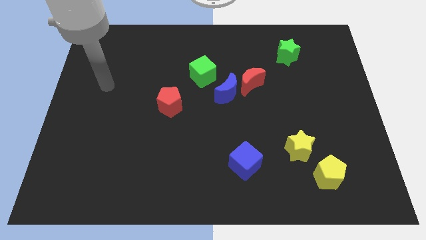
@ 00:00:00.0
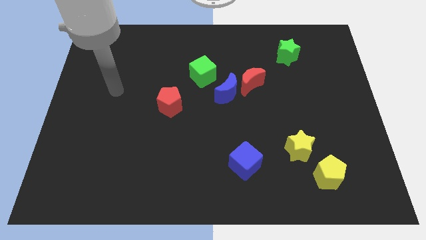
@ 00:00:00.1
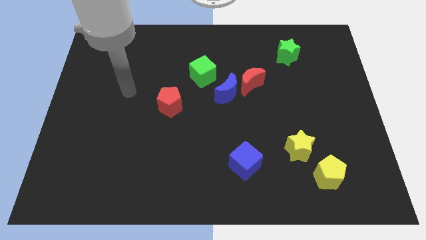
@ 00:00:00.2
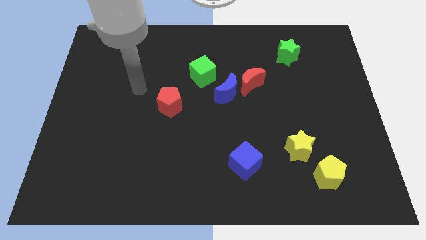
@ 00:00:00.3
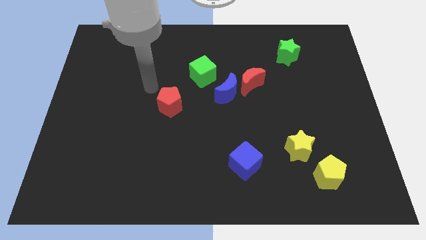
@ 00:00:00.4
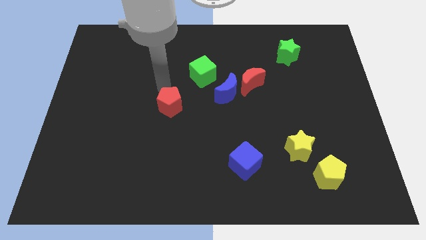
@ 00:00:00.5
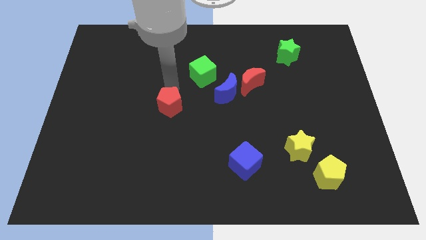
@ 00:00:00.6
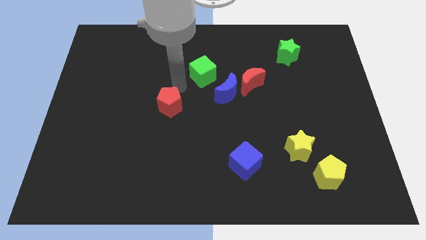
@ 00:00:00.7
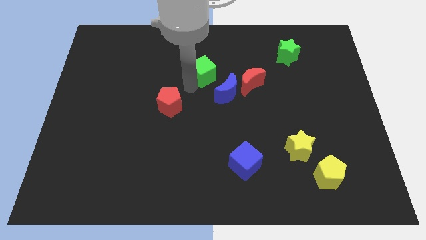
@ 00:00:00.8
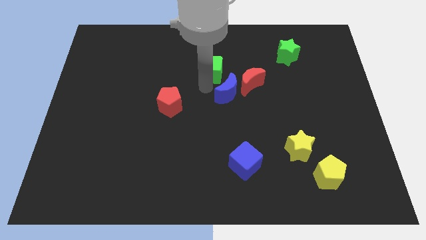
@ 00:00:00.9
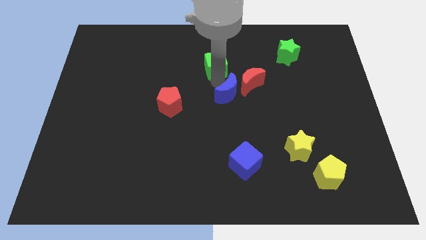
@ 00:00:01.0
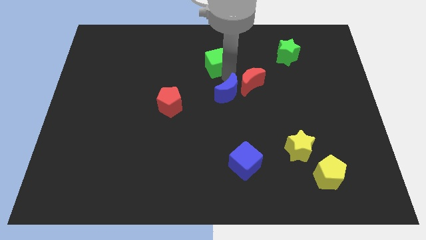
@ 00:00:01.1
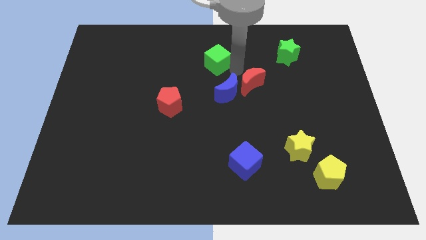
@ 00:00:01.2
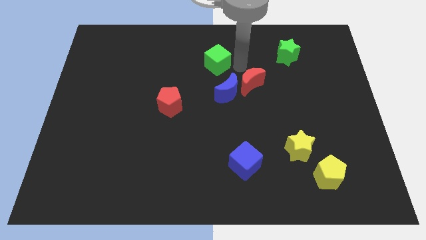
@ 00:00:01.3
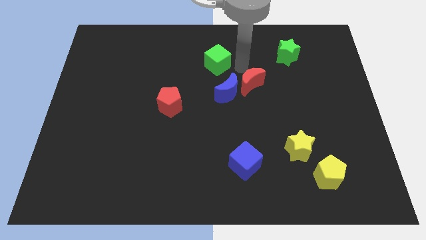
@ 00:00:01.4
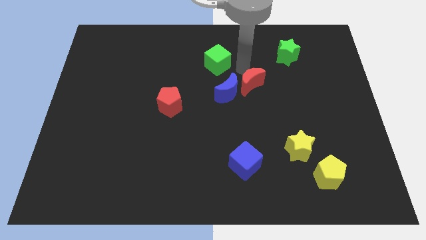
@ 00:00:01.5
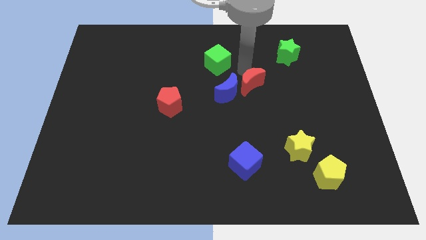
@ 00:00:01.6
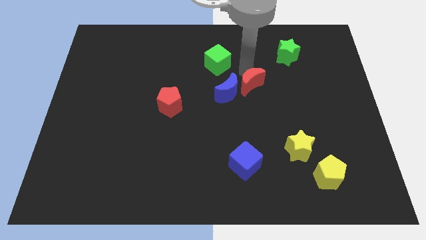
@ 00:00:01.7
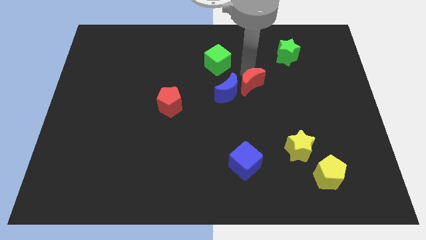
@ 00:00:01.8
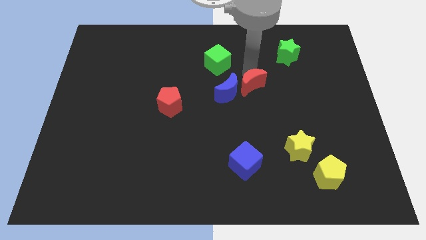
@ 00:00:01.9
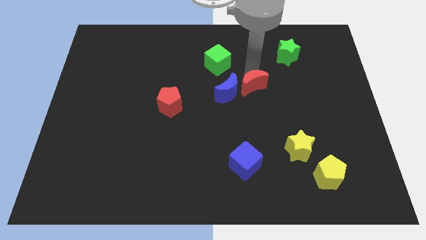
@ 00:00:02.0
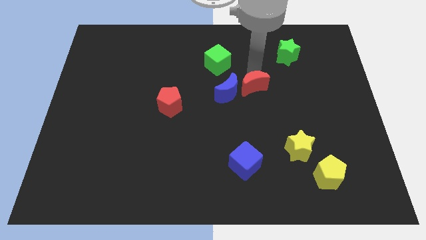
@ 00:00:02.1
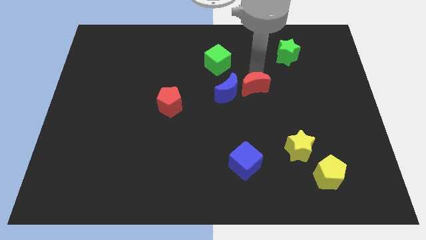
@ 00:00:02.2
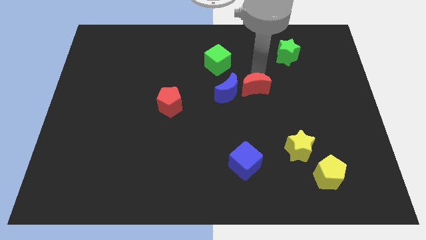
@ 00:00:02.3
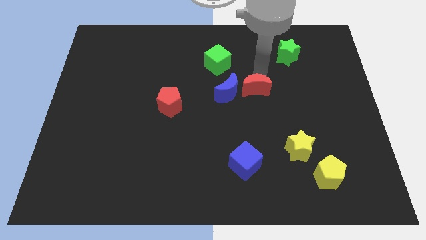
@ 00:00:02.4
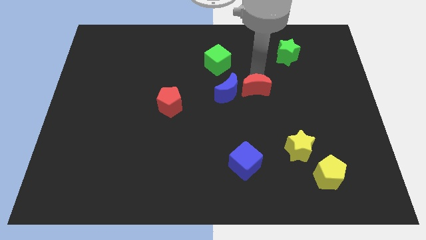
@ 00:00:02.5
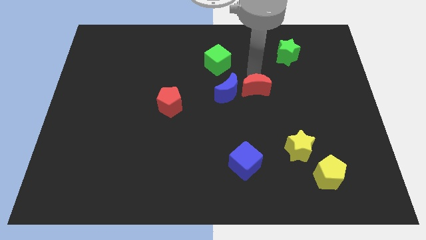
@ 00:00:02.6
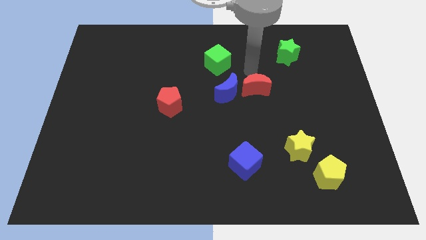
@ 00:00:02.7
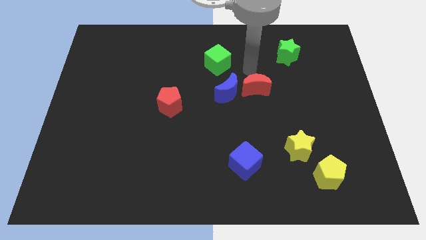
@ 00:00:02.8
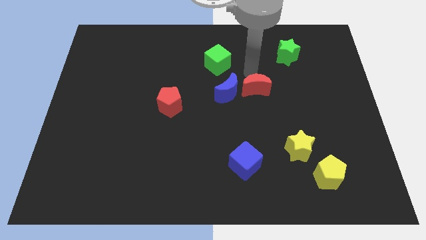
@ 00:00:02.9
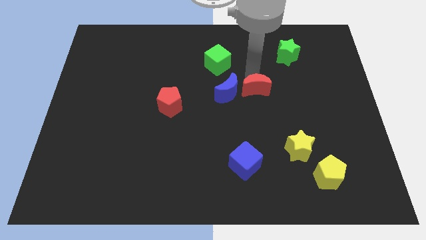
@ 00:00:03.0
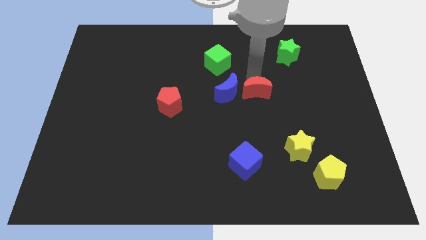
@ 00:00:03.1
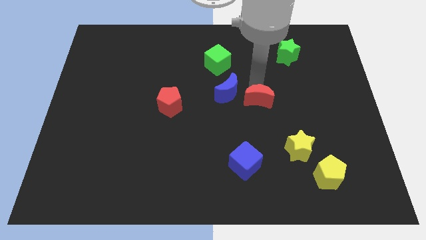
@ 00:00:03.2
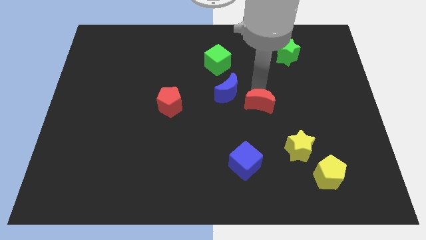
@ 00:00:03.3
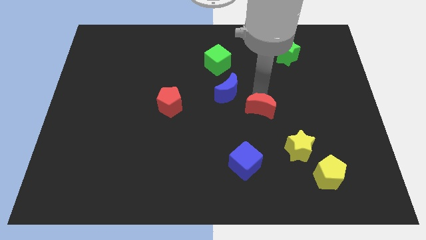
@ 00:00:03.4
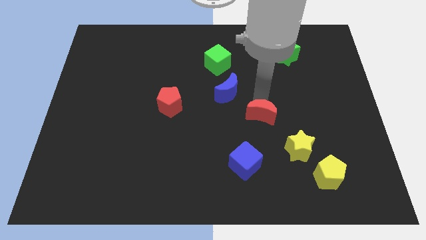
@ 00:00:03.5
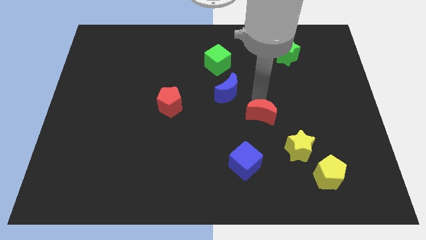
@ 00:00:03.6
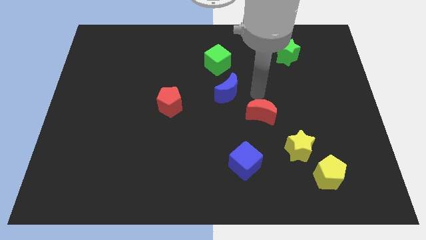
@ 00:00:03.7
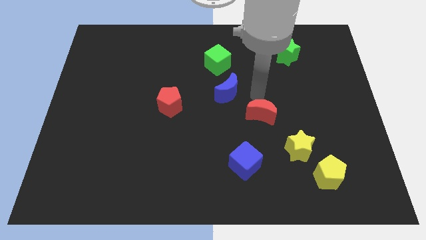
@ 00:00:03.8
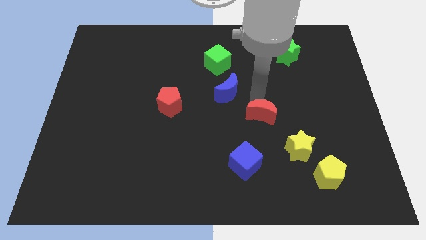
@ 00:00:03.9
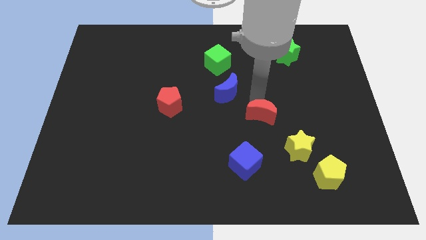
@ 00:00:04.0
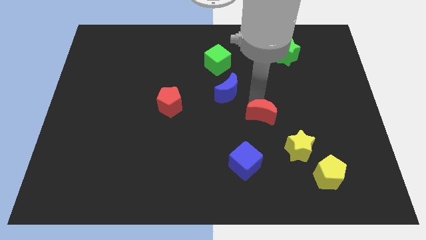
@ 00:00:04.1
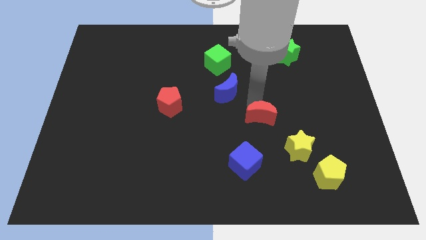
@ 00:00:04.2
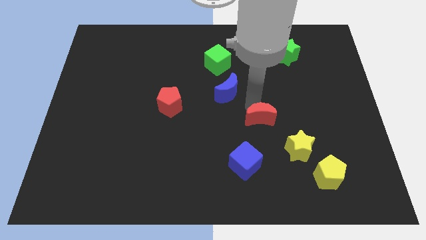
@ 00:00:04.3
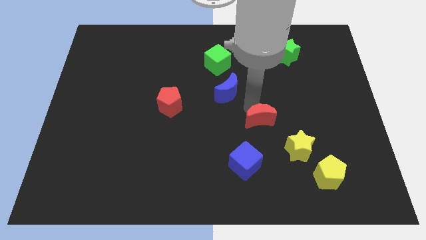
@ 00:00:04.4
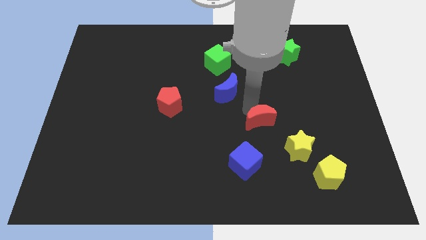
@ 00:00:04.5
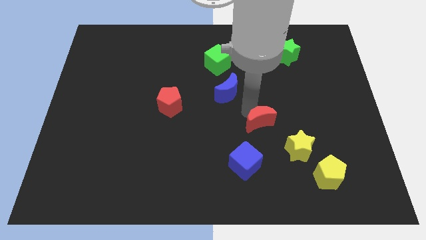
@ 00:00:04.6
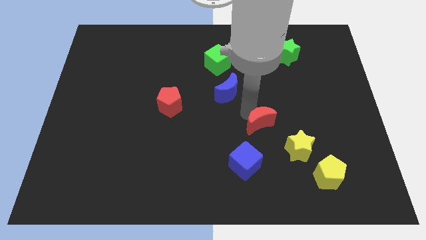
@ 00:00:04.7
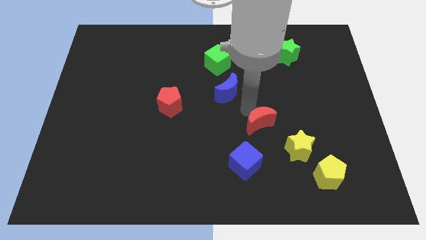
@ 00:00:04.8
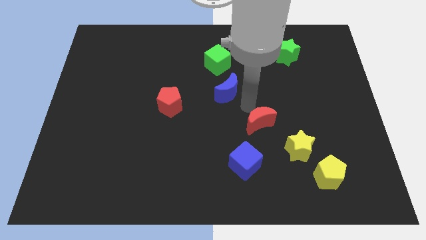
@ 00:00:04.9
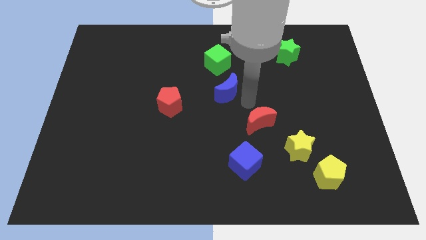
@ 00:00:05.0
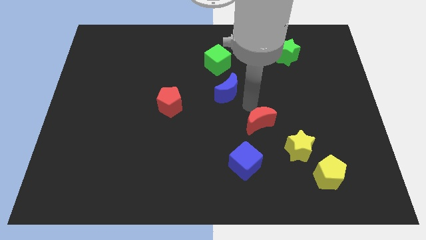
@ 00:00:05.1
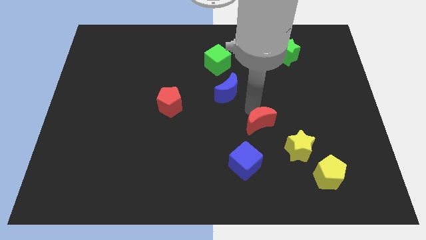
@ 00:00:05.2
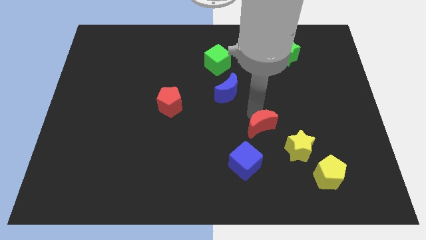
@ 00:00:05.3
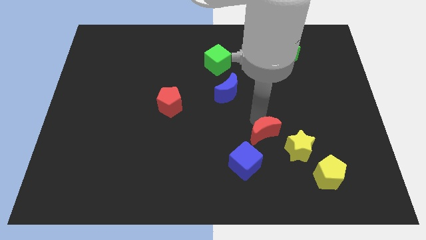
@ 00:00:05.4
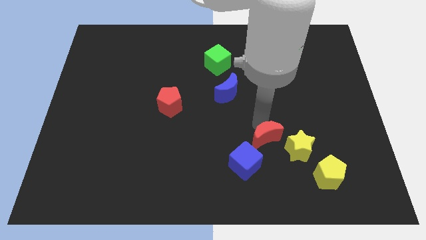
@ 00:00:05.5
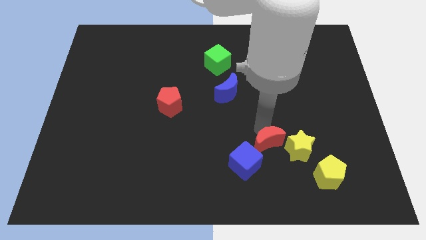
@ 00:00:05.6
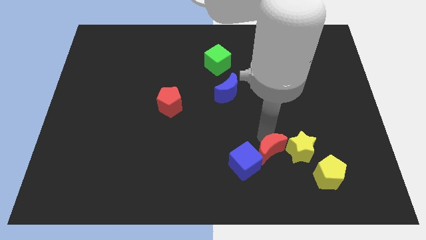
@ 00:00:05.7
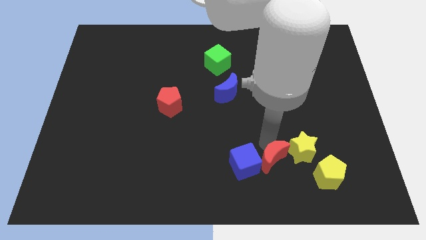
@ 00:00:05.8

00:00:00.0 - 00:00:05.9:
slide the red moon to the left side of the yellow pentagon

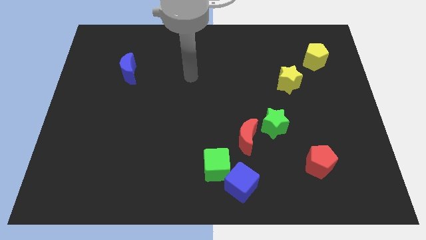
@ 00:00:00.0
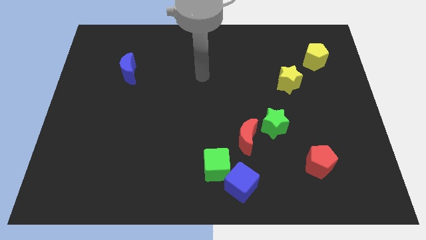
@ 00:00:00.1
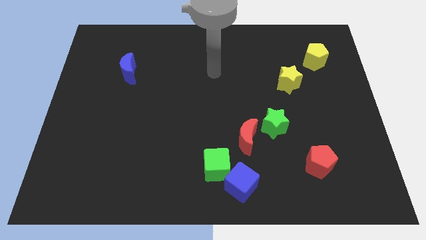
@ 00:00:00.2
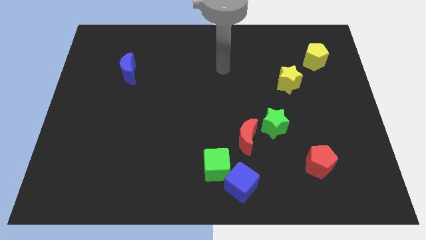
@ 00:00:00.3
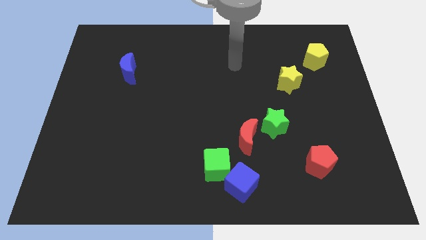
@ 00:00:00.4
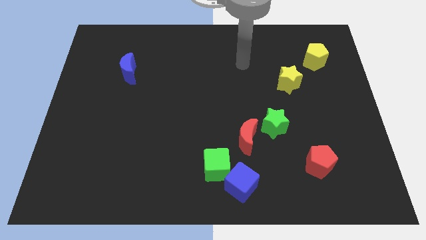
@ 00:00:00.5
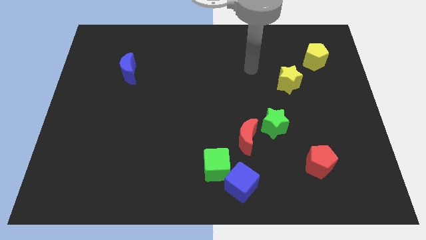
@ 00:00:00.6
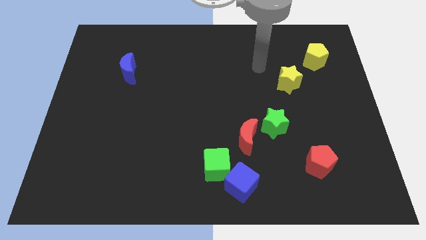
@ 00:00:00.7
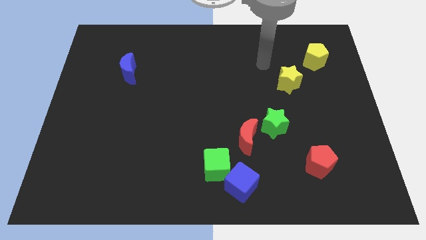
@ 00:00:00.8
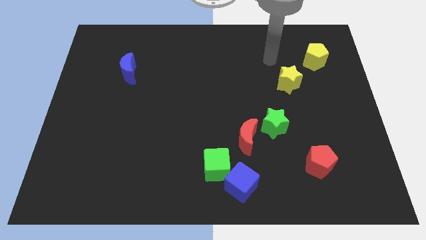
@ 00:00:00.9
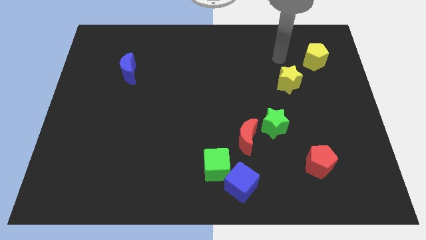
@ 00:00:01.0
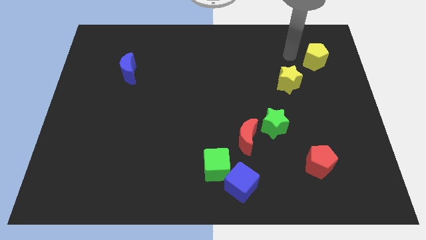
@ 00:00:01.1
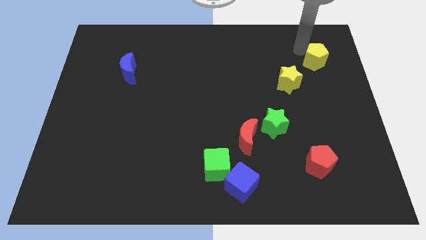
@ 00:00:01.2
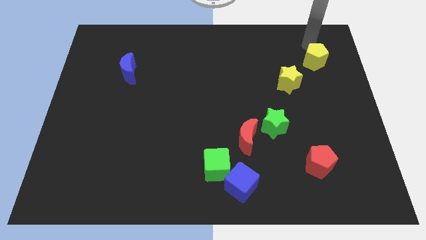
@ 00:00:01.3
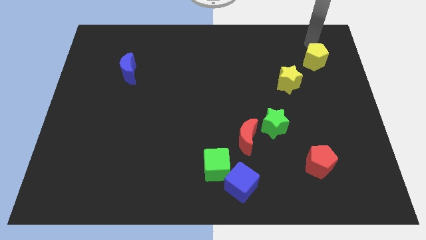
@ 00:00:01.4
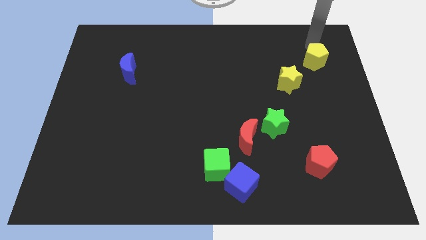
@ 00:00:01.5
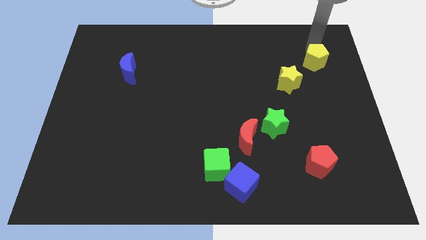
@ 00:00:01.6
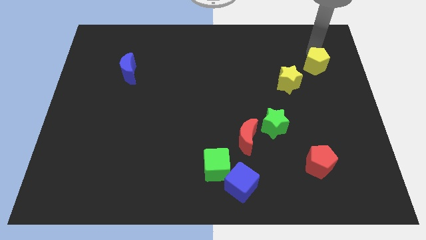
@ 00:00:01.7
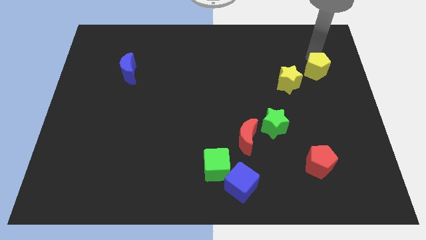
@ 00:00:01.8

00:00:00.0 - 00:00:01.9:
slide the yellow pentagon right of the yellow star
